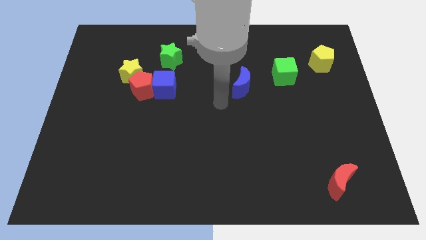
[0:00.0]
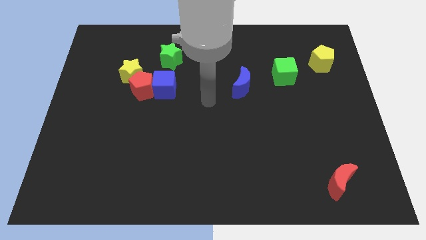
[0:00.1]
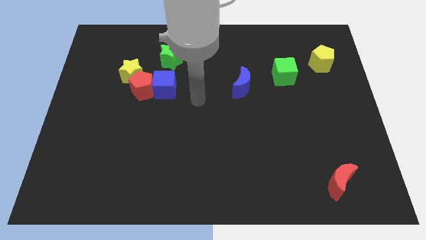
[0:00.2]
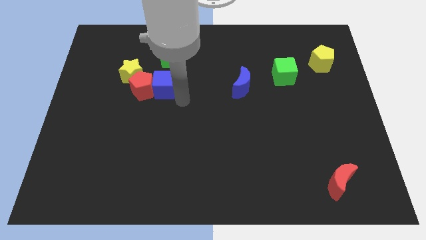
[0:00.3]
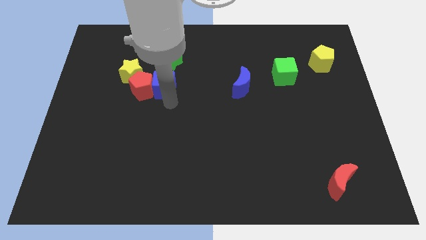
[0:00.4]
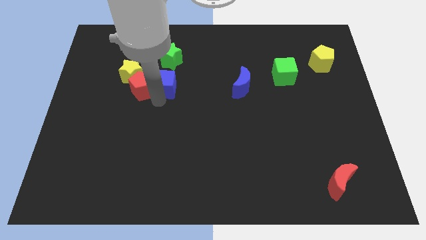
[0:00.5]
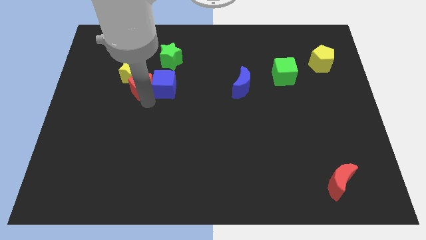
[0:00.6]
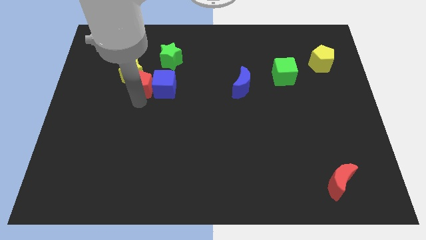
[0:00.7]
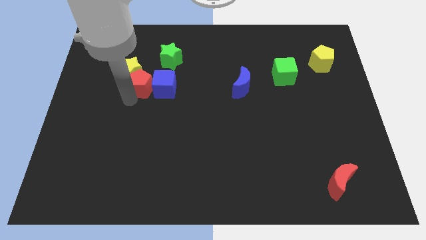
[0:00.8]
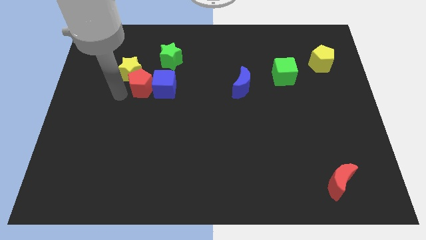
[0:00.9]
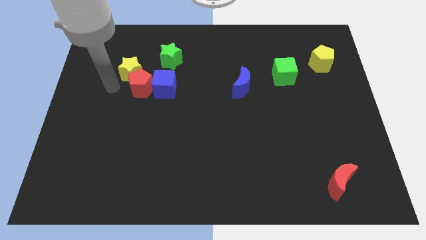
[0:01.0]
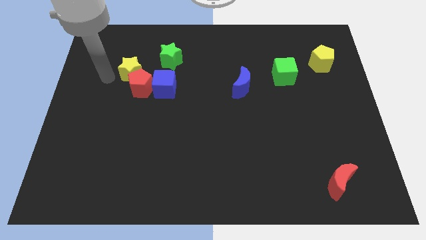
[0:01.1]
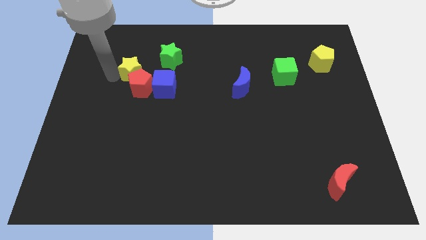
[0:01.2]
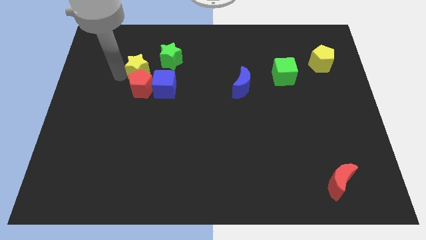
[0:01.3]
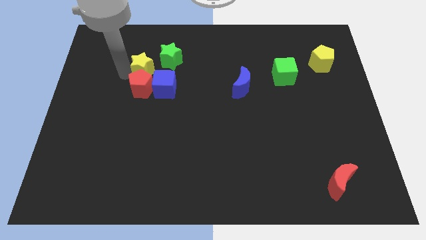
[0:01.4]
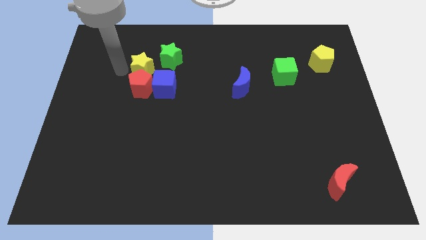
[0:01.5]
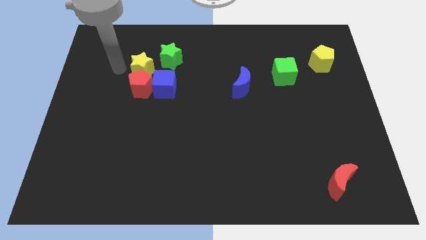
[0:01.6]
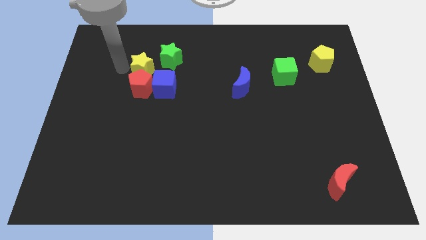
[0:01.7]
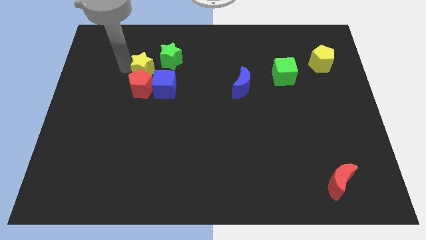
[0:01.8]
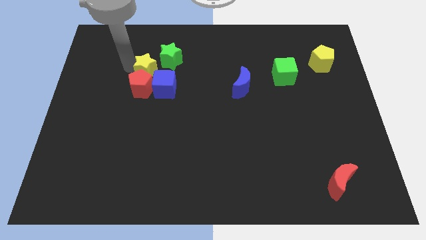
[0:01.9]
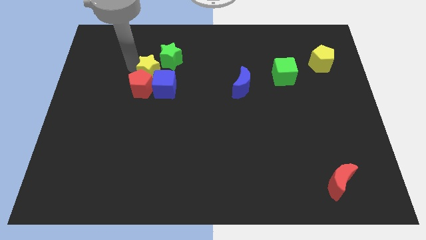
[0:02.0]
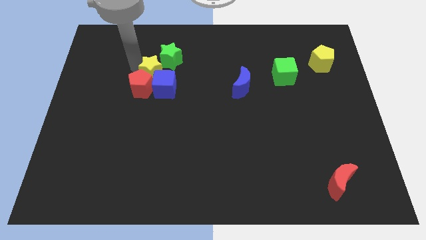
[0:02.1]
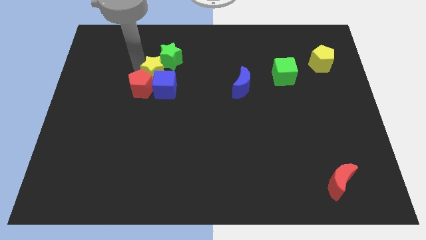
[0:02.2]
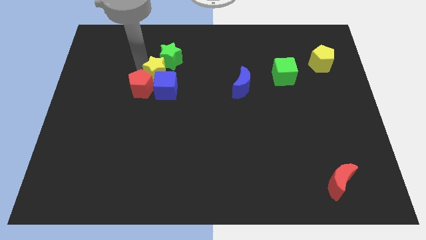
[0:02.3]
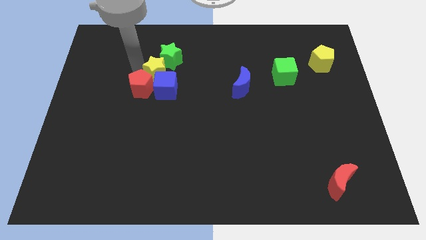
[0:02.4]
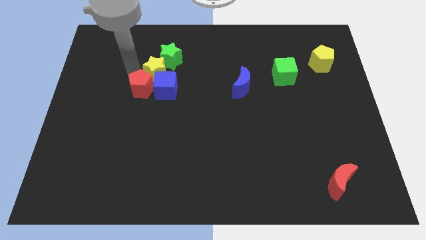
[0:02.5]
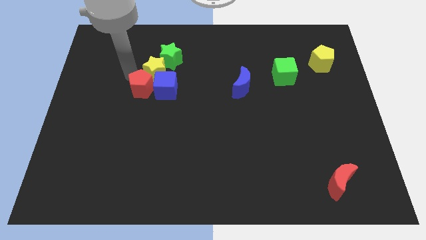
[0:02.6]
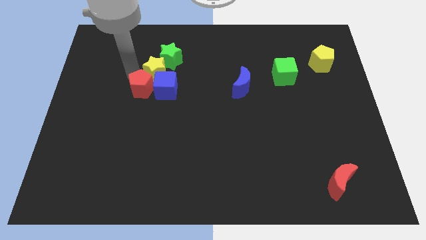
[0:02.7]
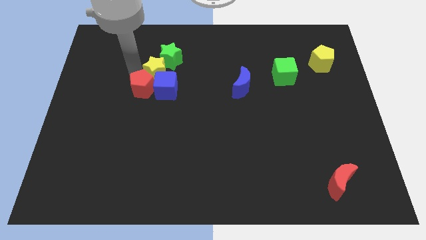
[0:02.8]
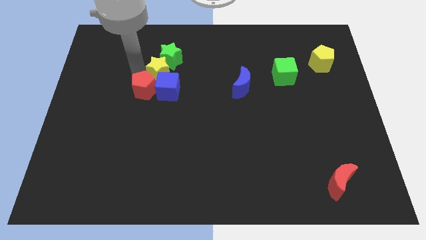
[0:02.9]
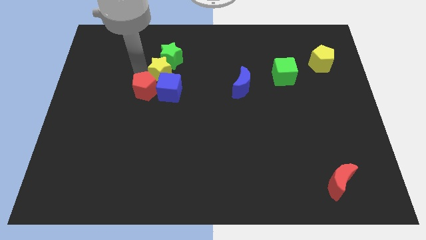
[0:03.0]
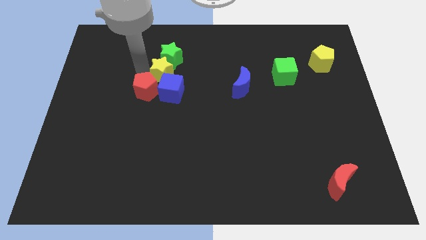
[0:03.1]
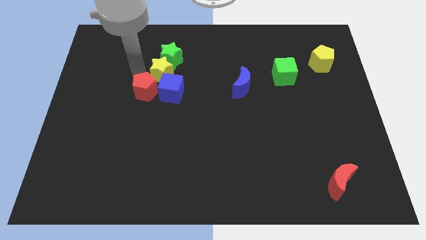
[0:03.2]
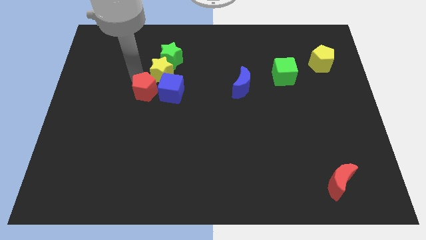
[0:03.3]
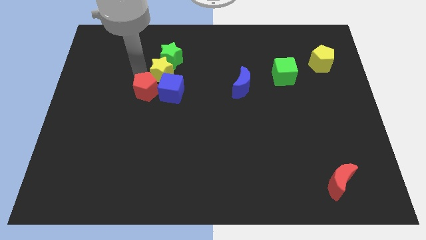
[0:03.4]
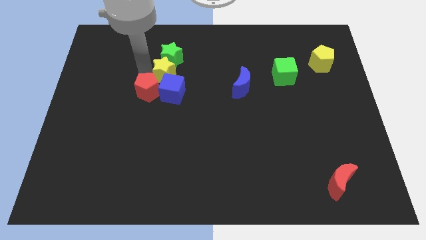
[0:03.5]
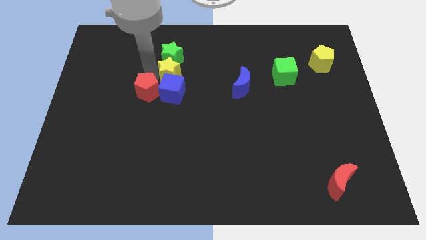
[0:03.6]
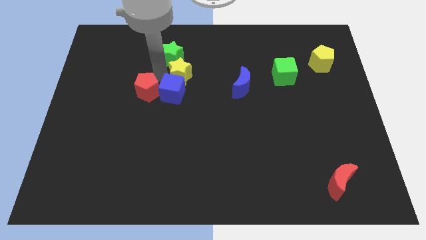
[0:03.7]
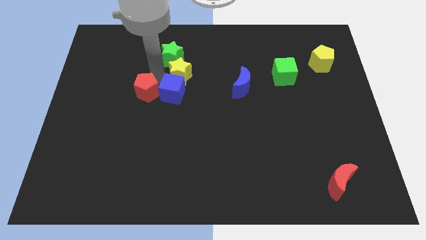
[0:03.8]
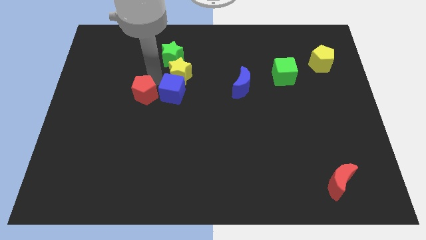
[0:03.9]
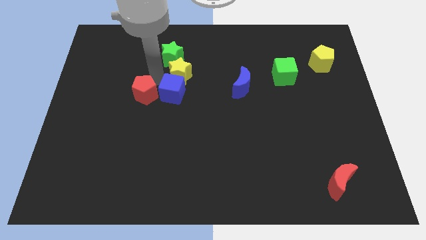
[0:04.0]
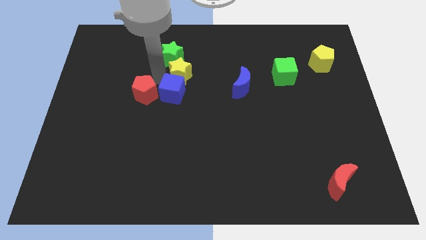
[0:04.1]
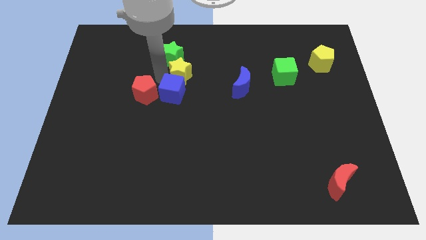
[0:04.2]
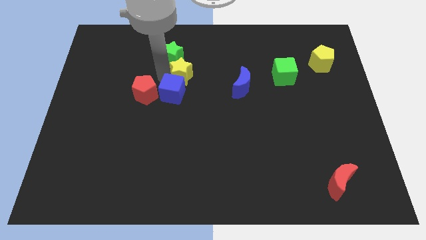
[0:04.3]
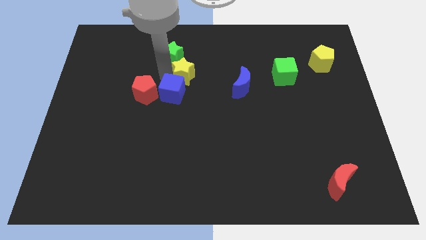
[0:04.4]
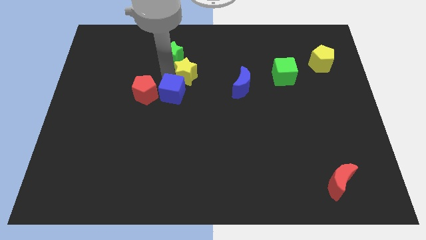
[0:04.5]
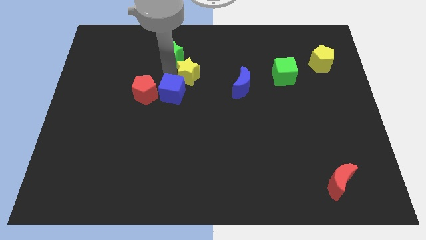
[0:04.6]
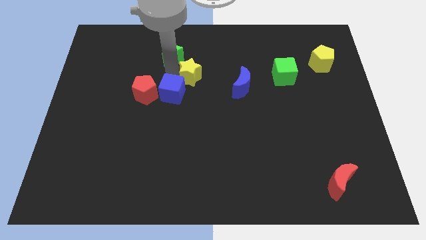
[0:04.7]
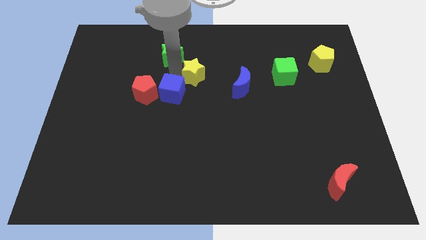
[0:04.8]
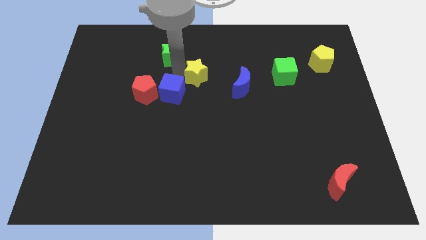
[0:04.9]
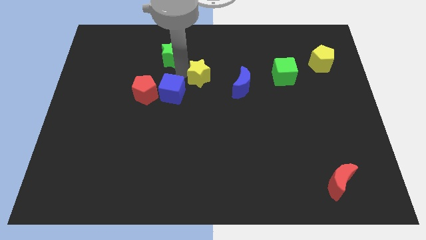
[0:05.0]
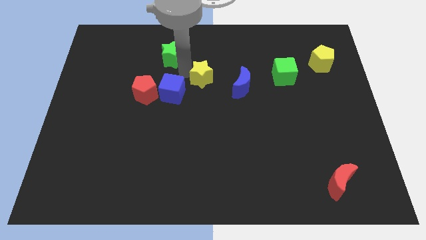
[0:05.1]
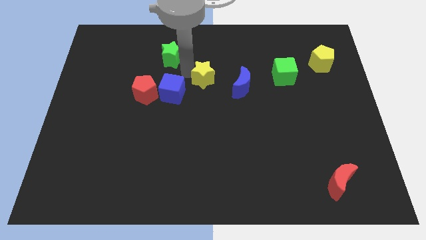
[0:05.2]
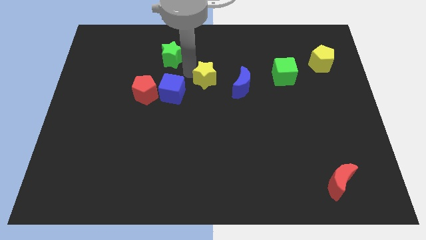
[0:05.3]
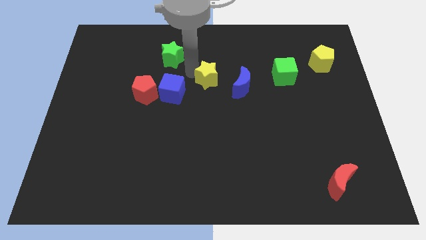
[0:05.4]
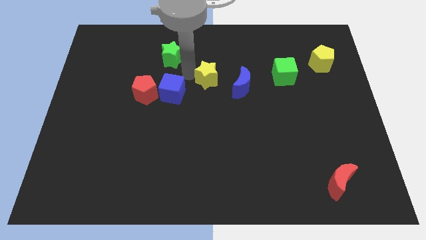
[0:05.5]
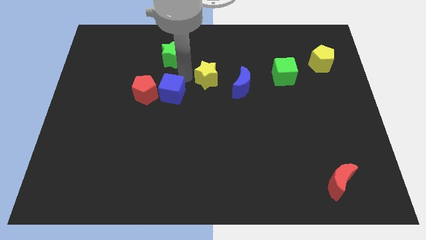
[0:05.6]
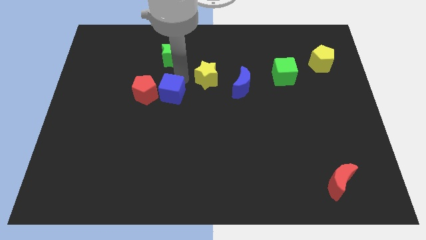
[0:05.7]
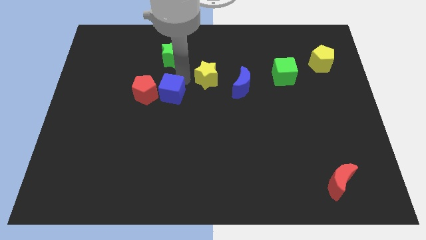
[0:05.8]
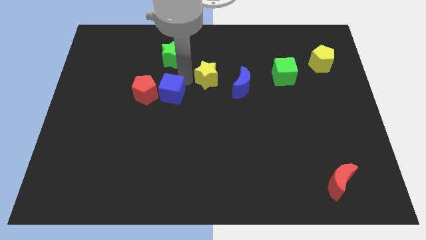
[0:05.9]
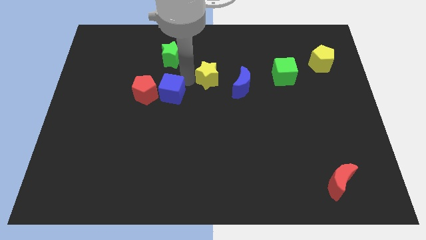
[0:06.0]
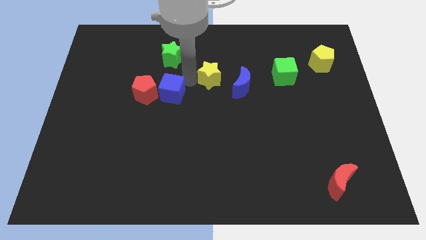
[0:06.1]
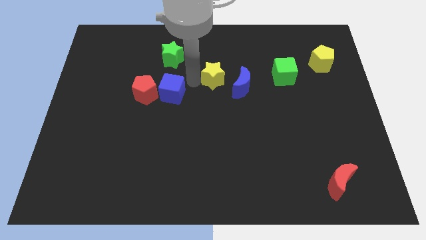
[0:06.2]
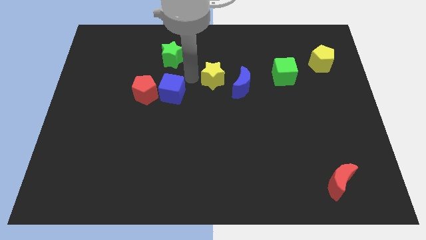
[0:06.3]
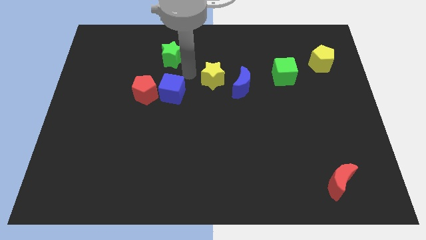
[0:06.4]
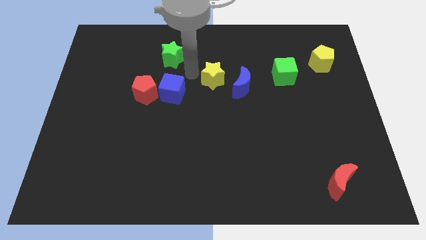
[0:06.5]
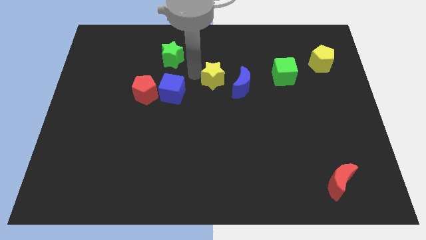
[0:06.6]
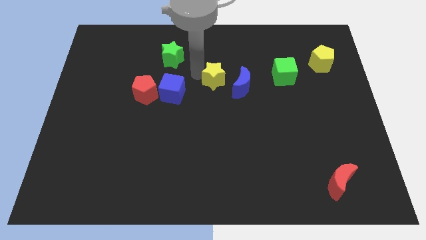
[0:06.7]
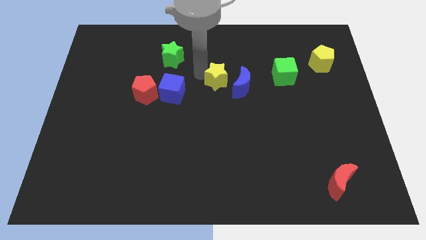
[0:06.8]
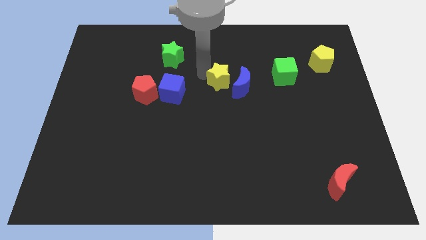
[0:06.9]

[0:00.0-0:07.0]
push the yellow star next to the blue moon

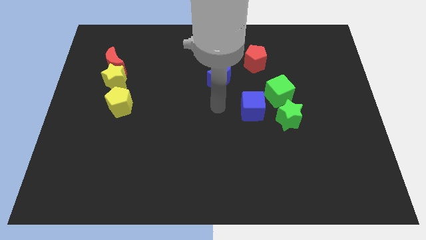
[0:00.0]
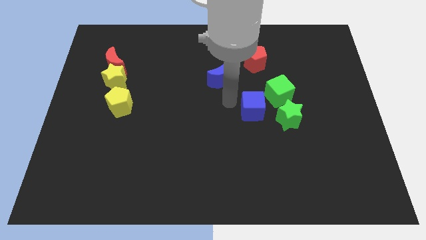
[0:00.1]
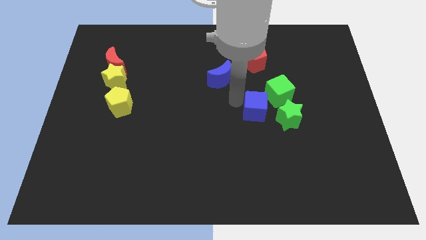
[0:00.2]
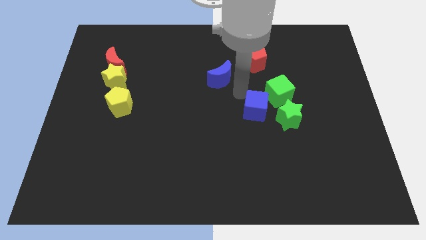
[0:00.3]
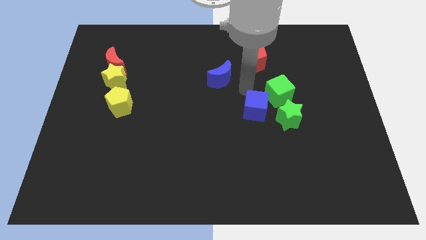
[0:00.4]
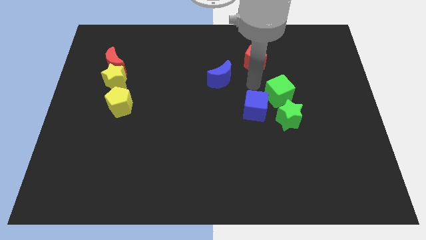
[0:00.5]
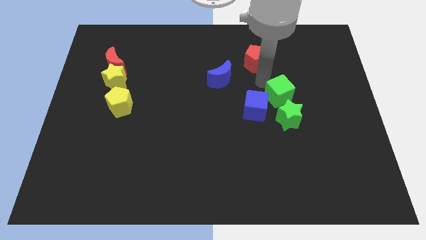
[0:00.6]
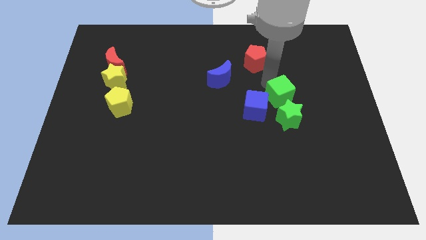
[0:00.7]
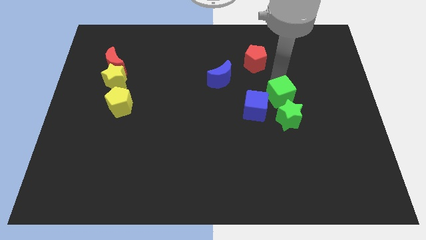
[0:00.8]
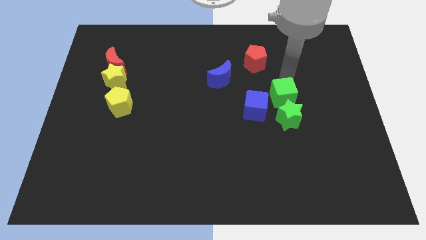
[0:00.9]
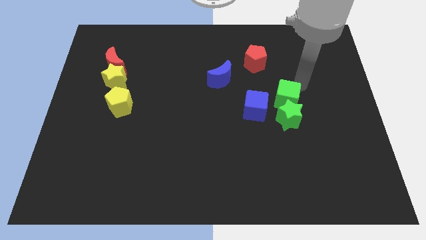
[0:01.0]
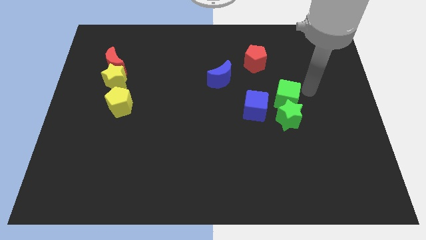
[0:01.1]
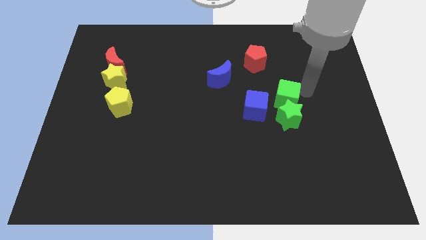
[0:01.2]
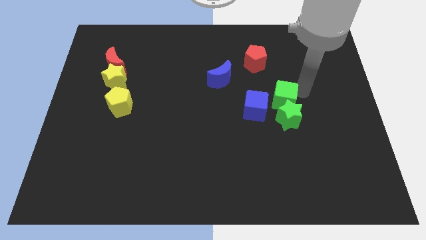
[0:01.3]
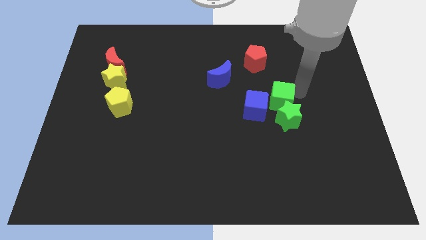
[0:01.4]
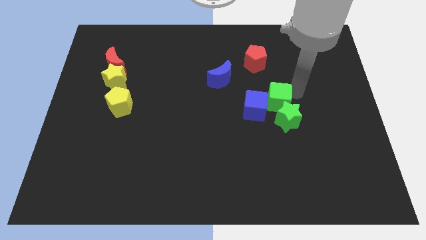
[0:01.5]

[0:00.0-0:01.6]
push the green cube to the blue cube
